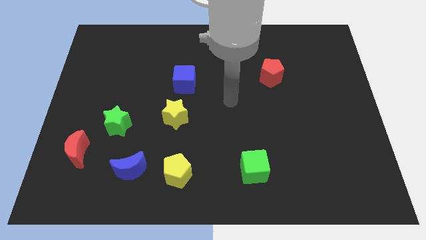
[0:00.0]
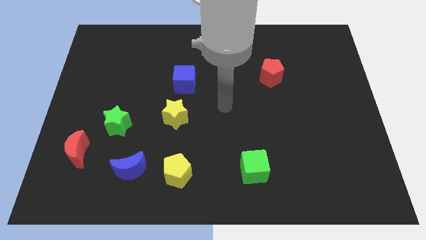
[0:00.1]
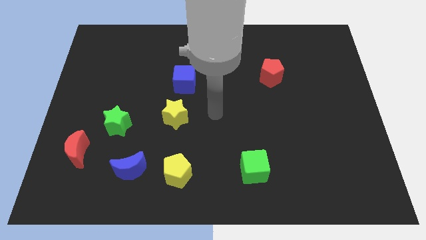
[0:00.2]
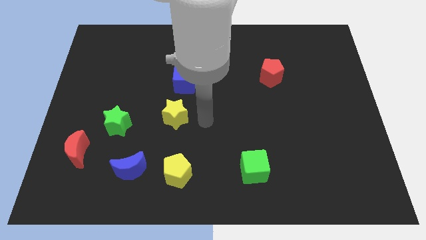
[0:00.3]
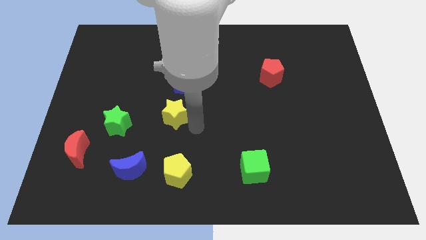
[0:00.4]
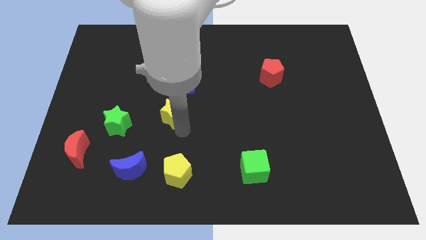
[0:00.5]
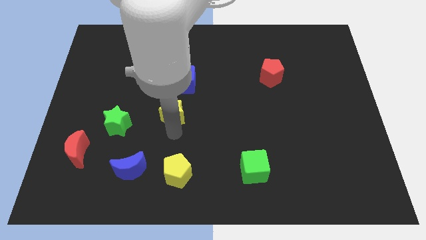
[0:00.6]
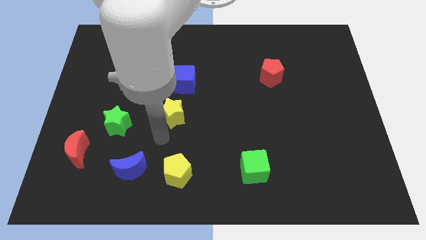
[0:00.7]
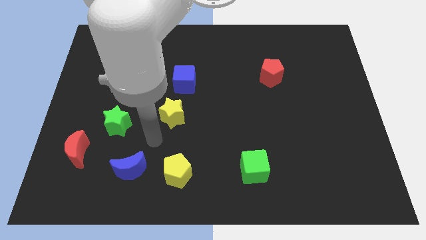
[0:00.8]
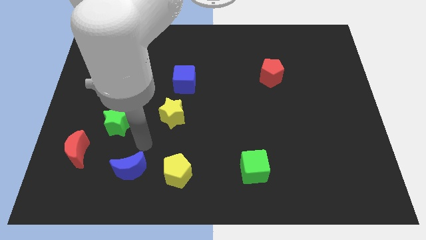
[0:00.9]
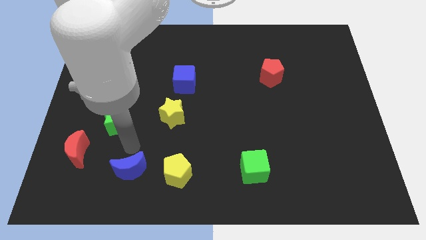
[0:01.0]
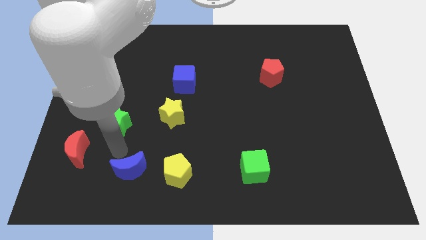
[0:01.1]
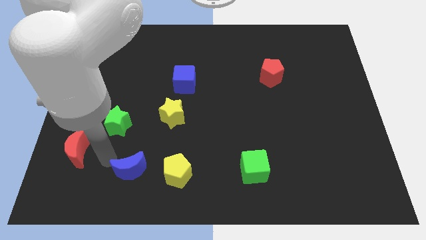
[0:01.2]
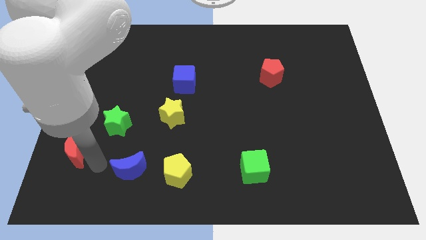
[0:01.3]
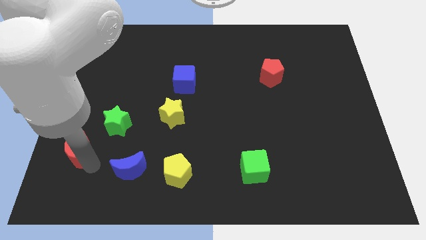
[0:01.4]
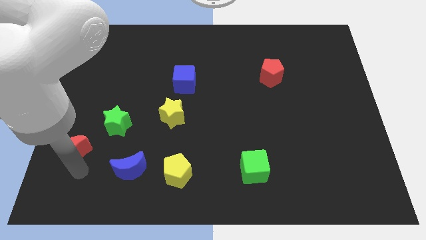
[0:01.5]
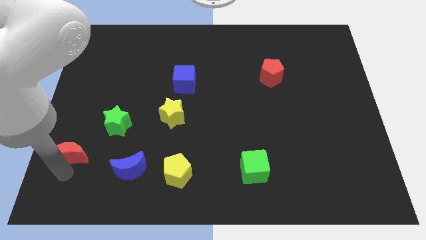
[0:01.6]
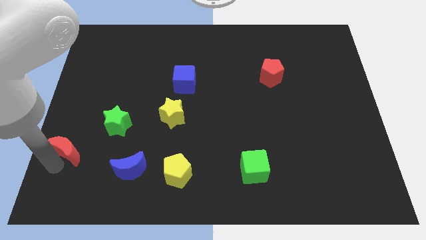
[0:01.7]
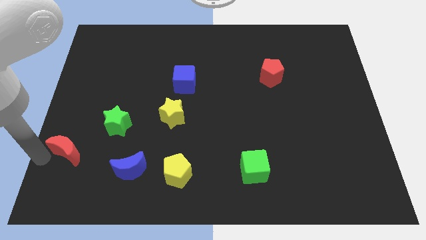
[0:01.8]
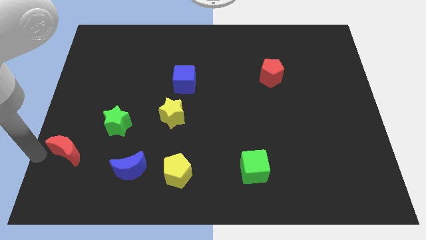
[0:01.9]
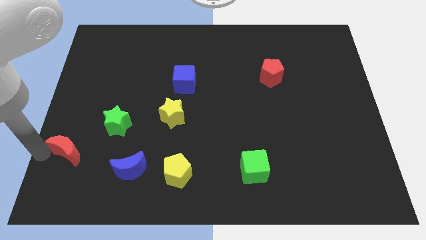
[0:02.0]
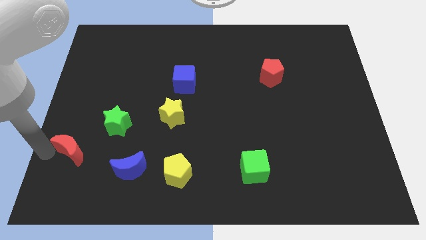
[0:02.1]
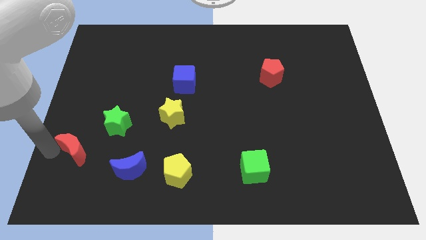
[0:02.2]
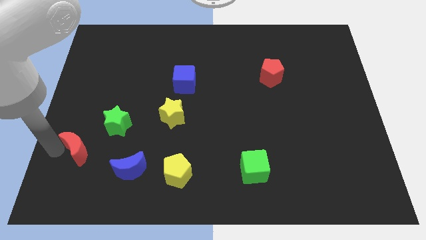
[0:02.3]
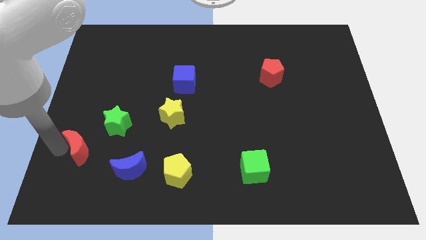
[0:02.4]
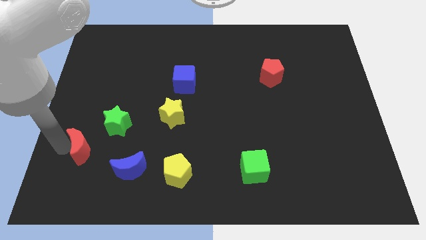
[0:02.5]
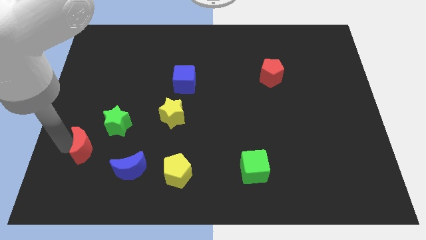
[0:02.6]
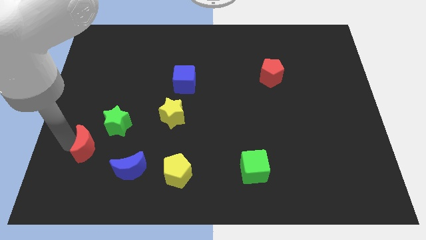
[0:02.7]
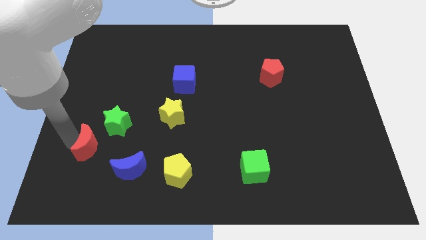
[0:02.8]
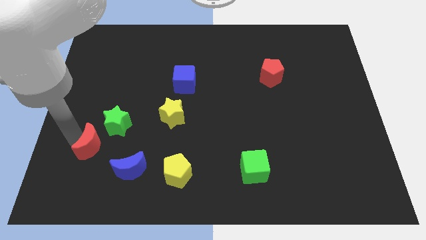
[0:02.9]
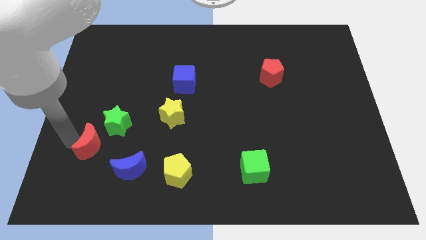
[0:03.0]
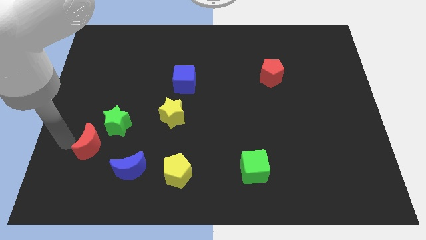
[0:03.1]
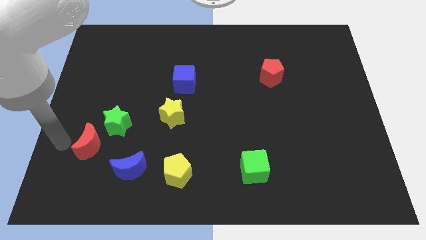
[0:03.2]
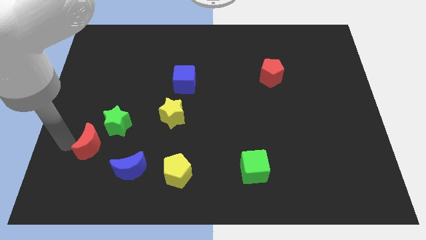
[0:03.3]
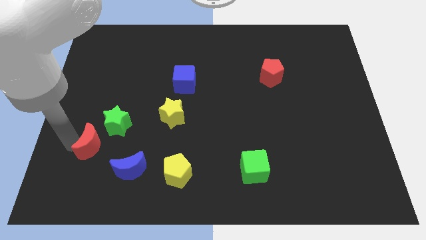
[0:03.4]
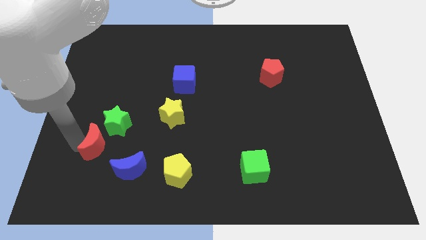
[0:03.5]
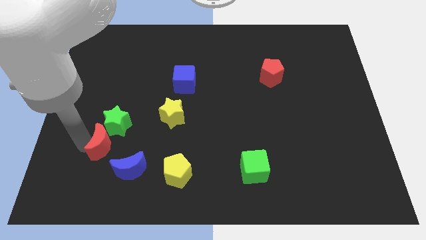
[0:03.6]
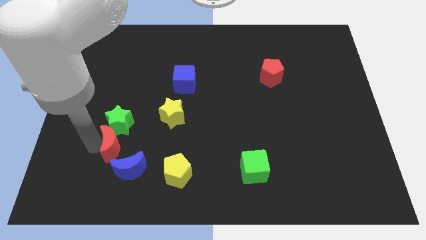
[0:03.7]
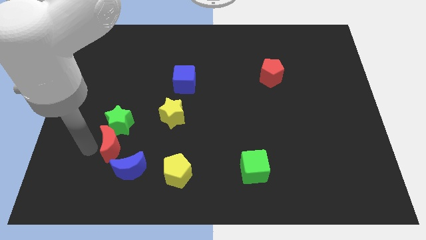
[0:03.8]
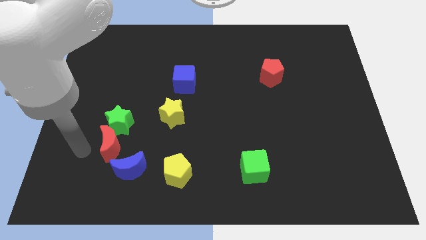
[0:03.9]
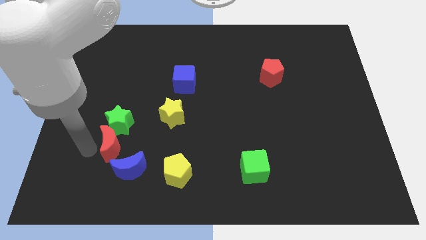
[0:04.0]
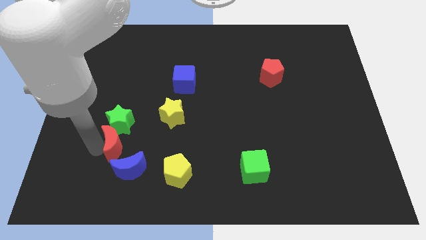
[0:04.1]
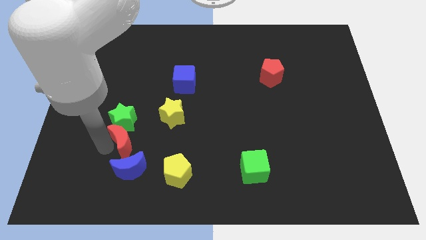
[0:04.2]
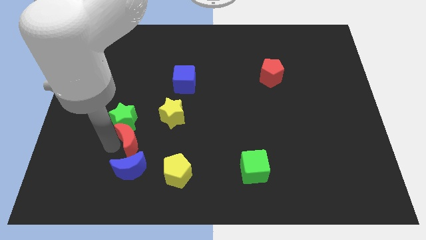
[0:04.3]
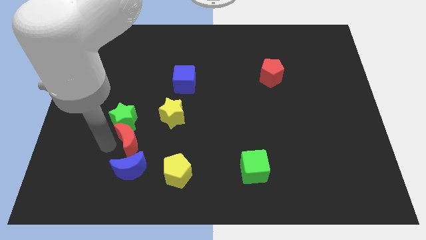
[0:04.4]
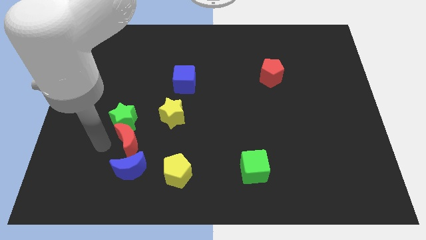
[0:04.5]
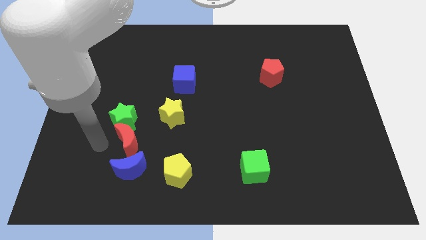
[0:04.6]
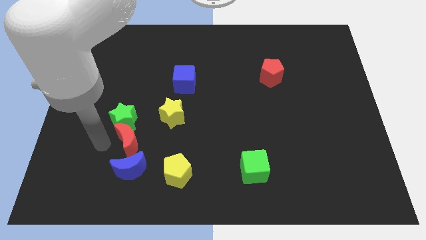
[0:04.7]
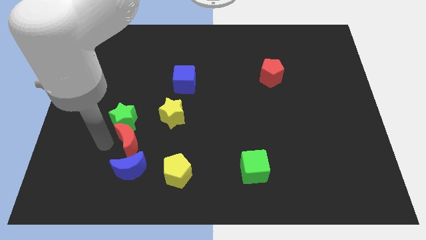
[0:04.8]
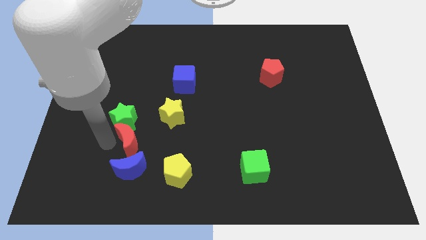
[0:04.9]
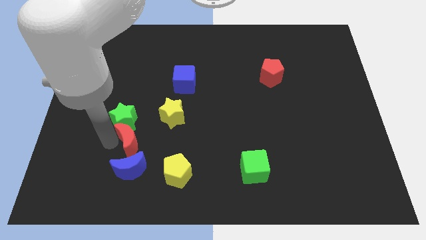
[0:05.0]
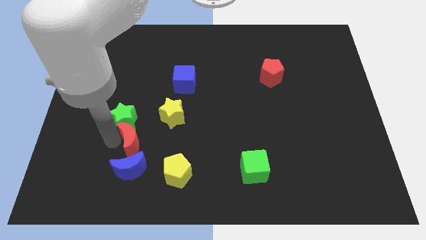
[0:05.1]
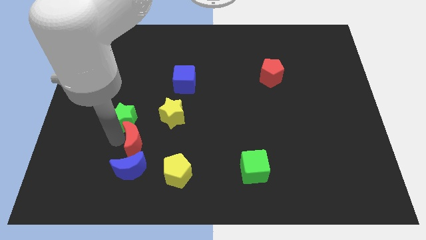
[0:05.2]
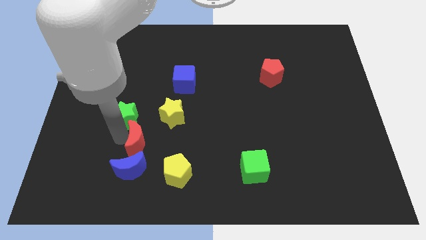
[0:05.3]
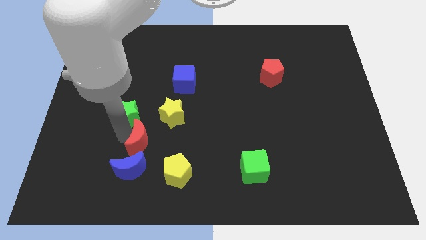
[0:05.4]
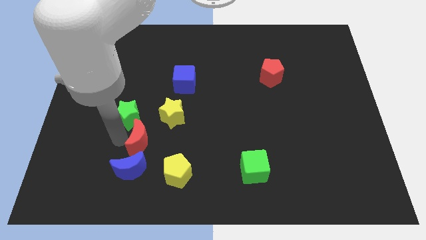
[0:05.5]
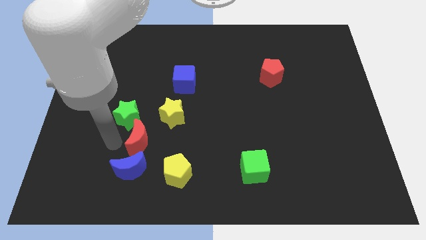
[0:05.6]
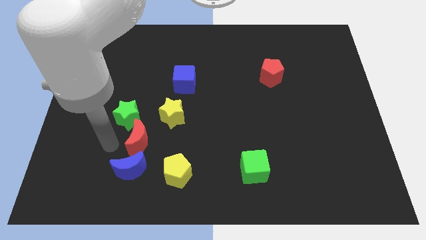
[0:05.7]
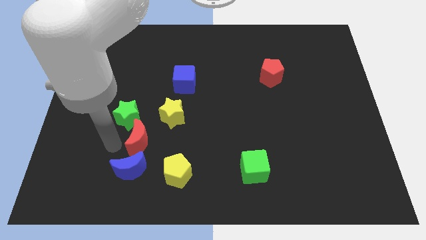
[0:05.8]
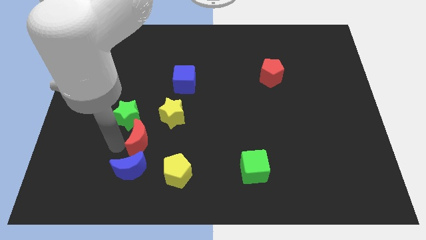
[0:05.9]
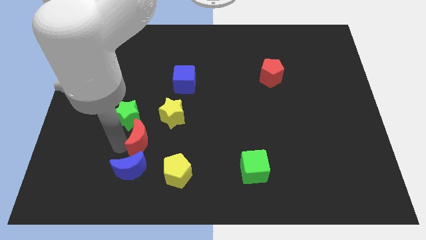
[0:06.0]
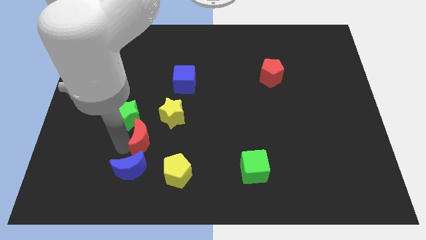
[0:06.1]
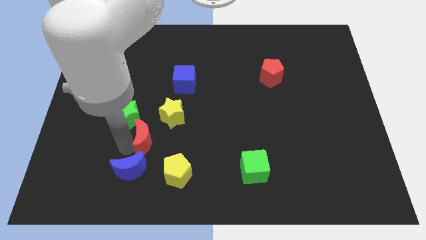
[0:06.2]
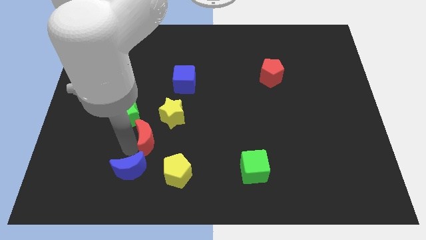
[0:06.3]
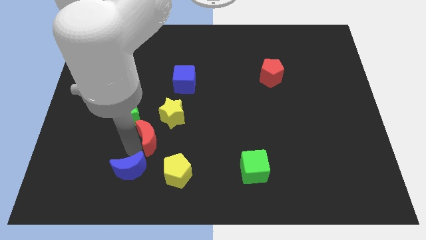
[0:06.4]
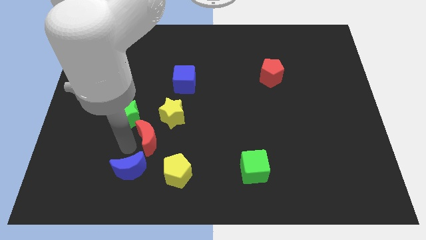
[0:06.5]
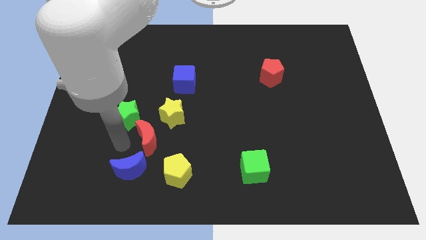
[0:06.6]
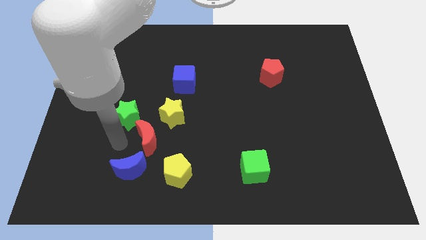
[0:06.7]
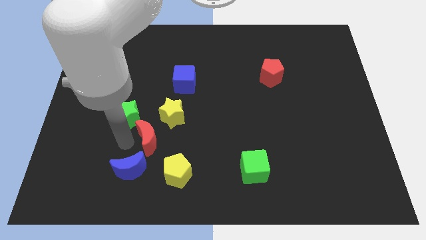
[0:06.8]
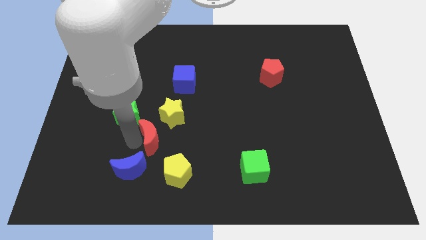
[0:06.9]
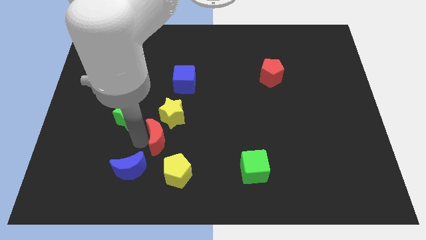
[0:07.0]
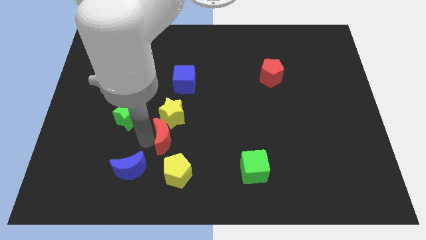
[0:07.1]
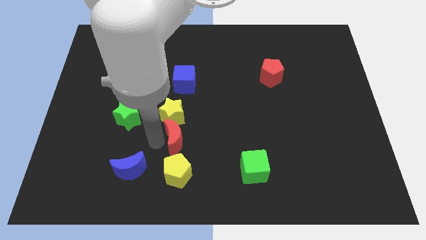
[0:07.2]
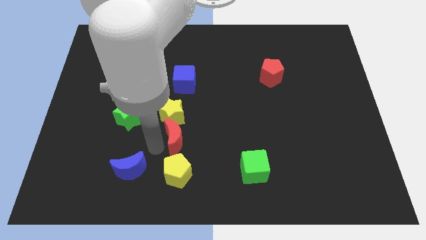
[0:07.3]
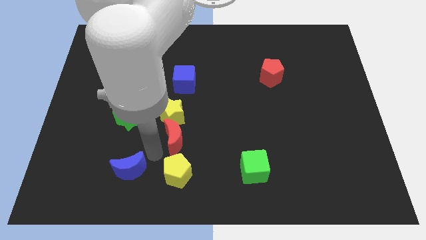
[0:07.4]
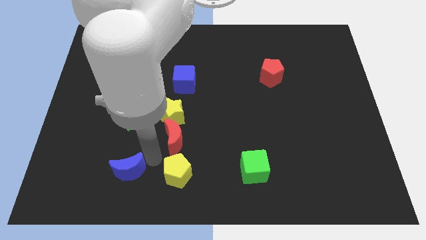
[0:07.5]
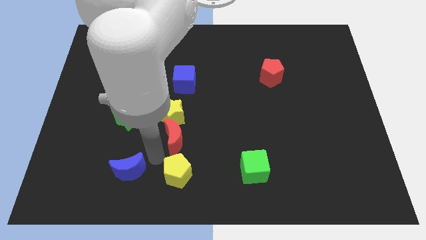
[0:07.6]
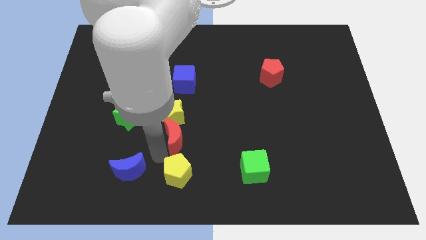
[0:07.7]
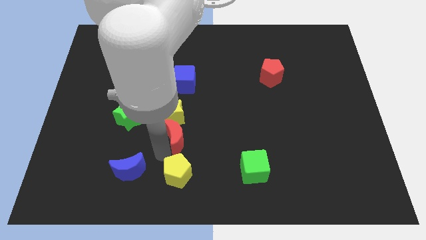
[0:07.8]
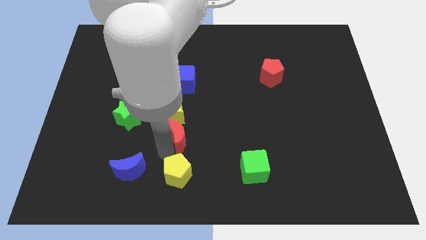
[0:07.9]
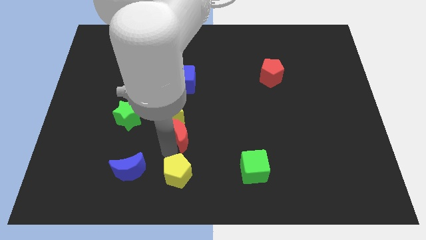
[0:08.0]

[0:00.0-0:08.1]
put the red moon to the center of the board
